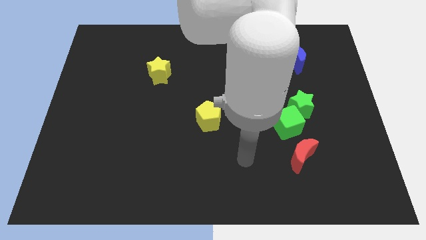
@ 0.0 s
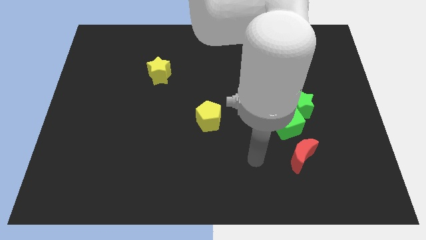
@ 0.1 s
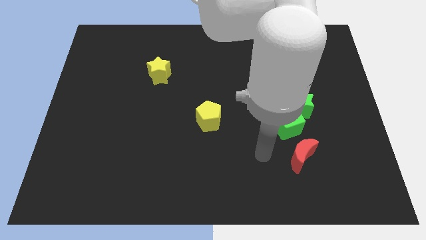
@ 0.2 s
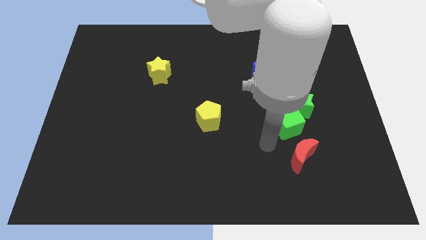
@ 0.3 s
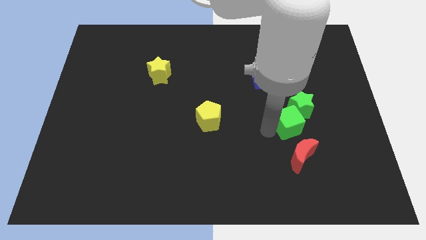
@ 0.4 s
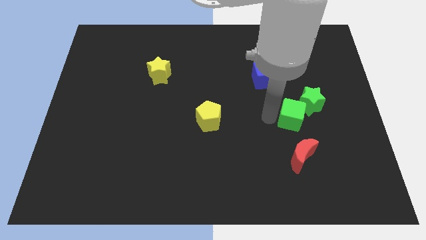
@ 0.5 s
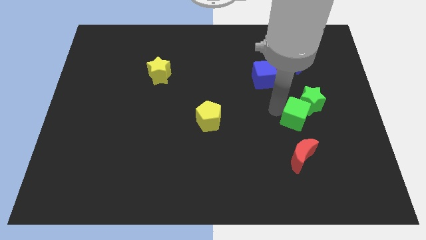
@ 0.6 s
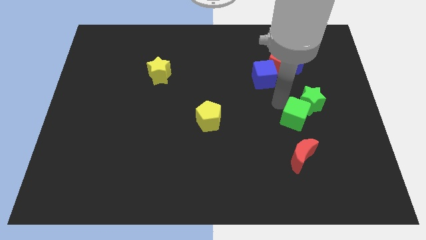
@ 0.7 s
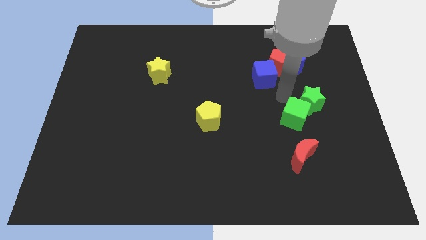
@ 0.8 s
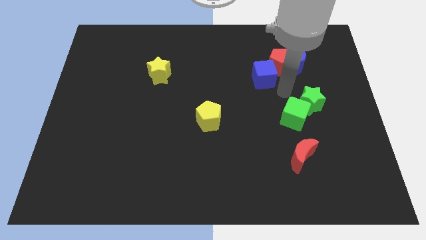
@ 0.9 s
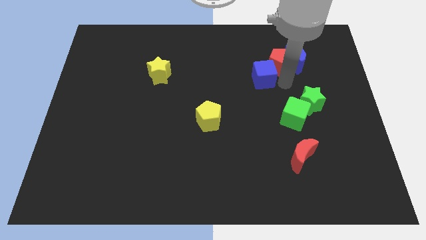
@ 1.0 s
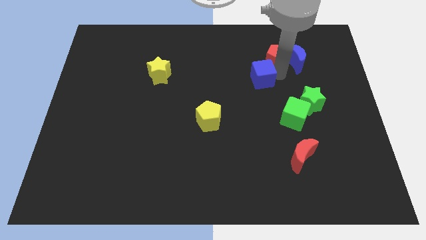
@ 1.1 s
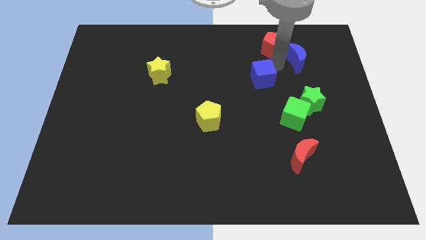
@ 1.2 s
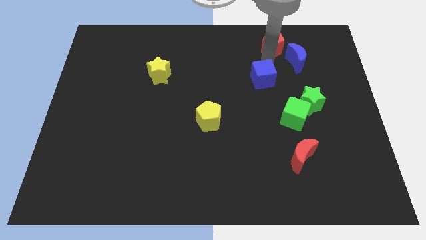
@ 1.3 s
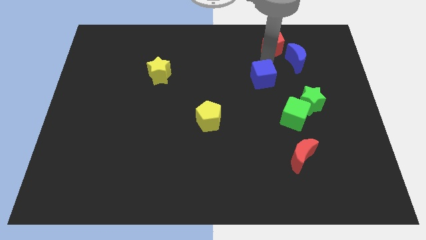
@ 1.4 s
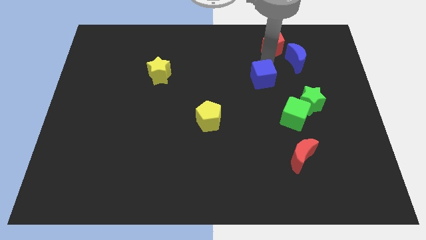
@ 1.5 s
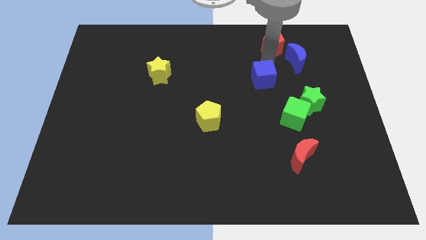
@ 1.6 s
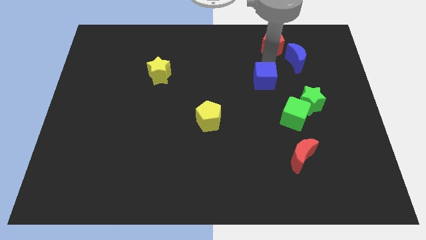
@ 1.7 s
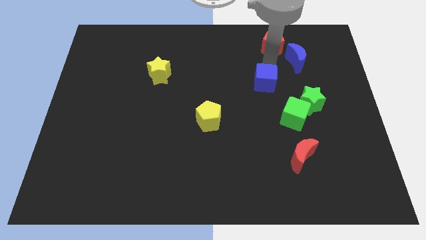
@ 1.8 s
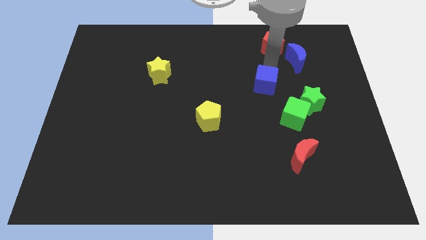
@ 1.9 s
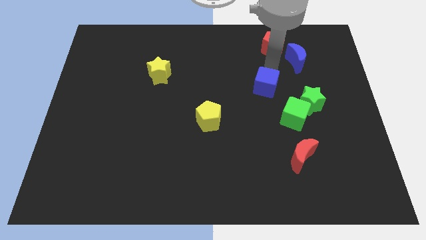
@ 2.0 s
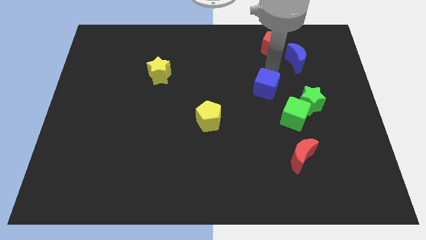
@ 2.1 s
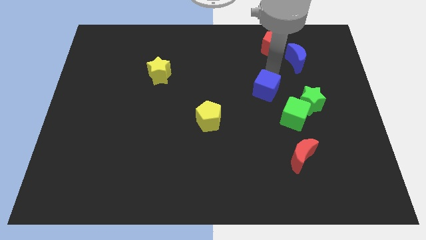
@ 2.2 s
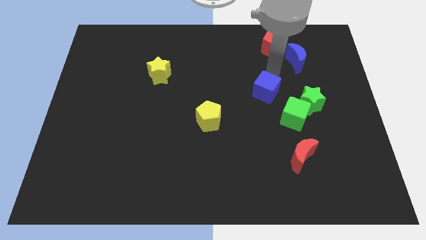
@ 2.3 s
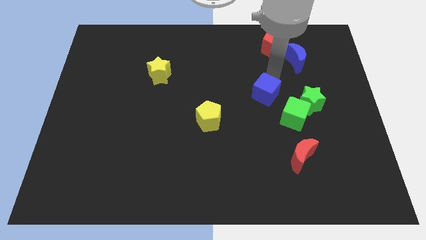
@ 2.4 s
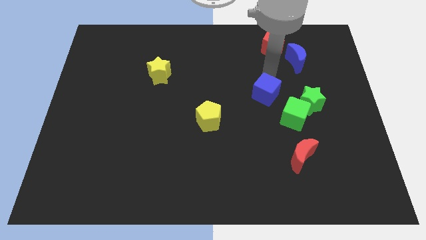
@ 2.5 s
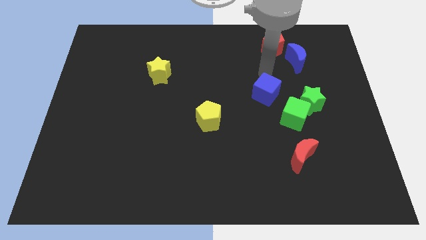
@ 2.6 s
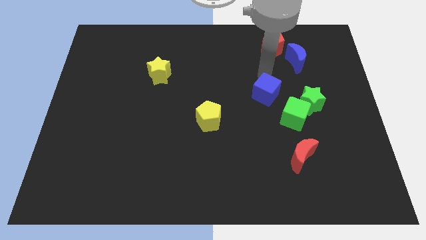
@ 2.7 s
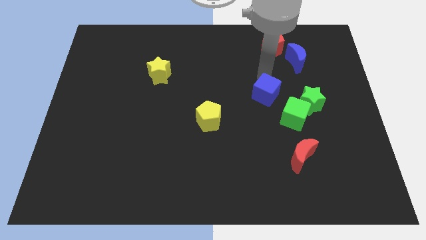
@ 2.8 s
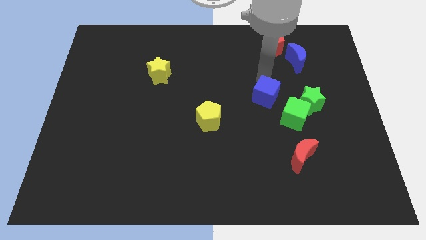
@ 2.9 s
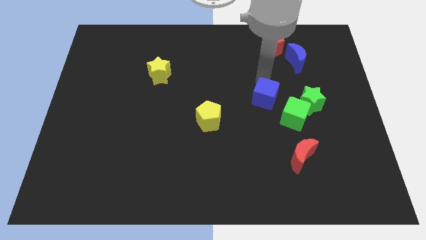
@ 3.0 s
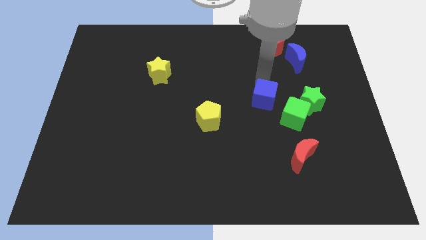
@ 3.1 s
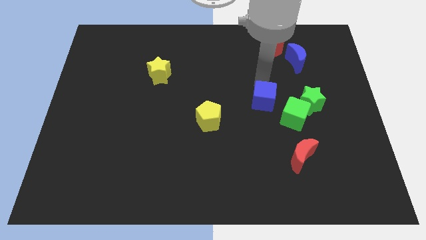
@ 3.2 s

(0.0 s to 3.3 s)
move the blue cube a little bit down

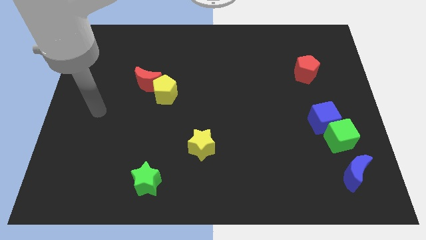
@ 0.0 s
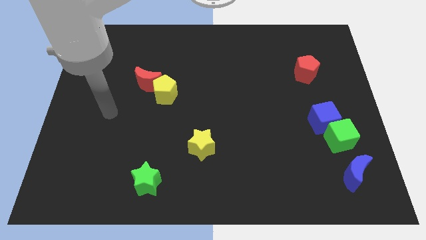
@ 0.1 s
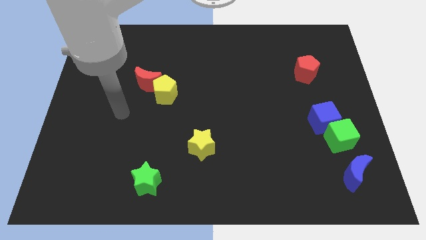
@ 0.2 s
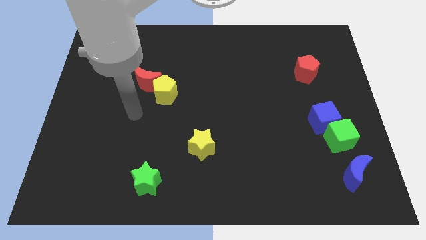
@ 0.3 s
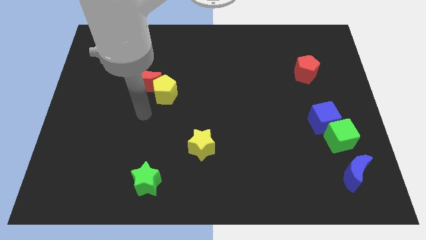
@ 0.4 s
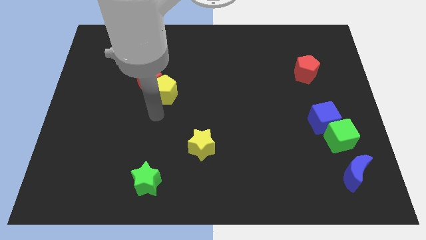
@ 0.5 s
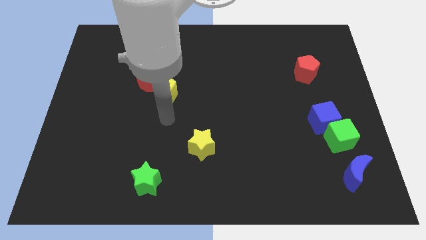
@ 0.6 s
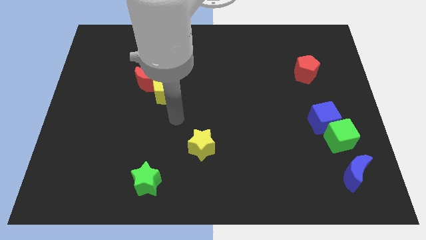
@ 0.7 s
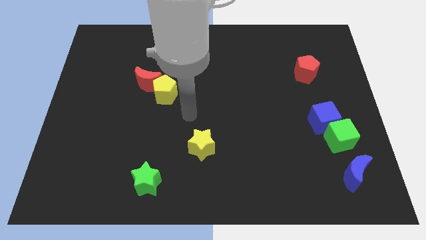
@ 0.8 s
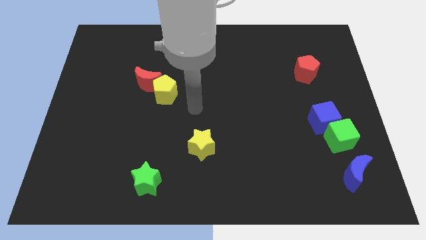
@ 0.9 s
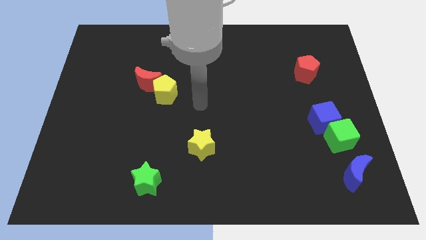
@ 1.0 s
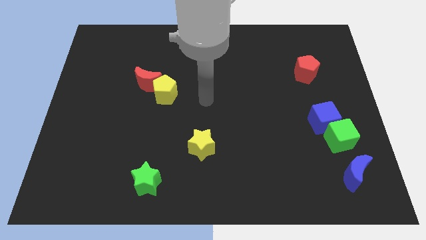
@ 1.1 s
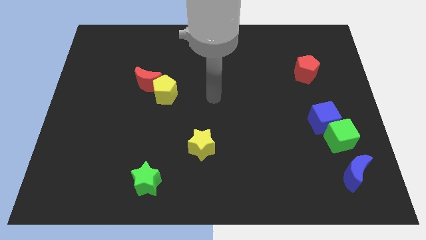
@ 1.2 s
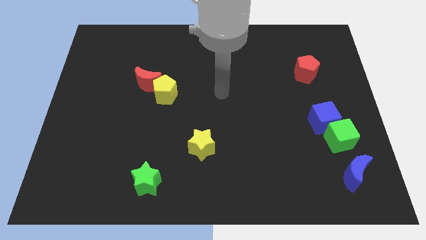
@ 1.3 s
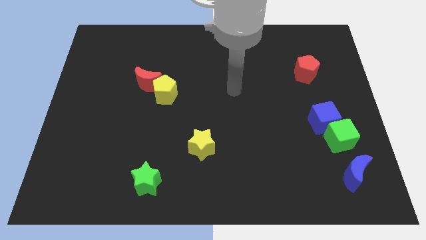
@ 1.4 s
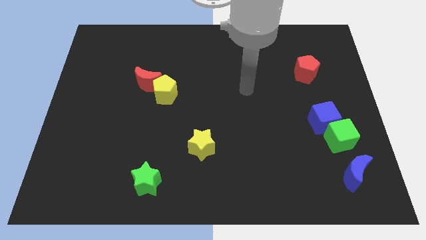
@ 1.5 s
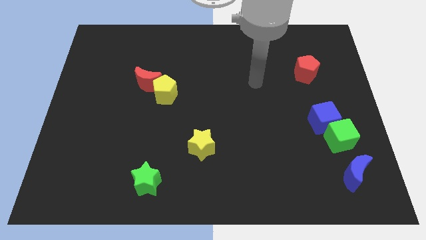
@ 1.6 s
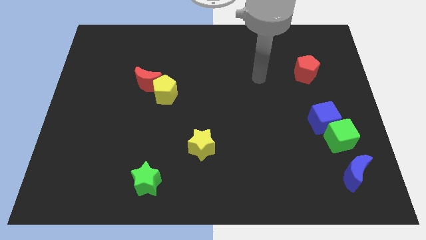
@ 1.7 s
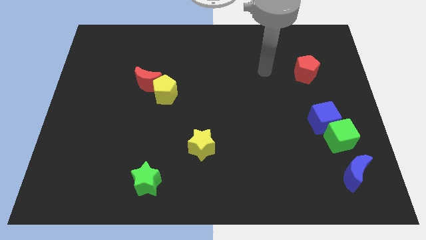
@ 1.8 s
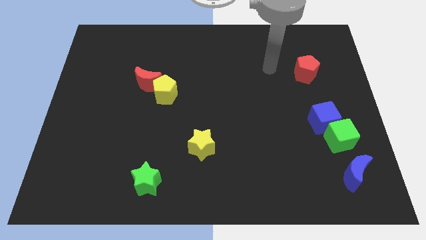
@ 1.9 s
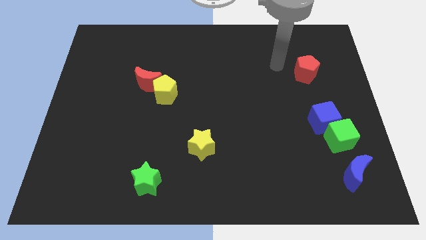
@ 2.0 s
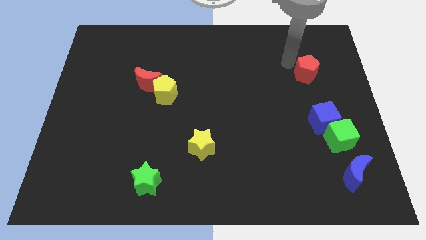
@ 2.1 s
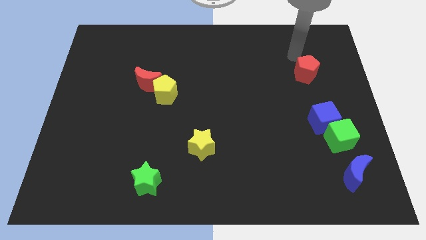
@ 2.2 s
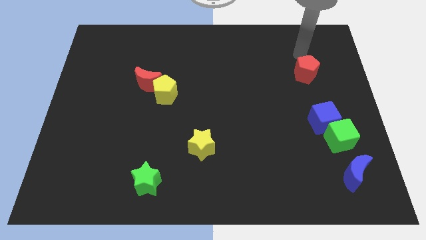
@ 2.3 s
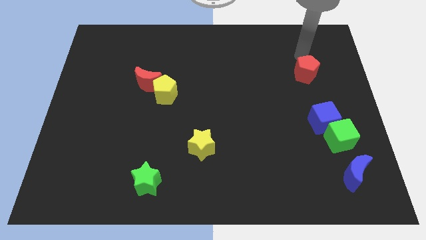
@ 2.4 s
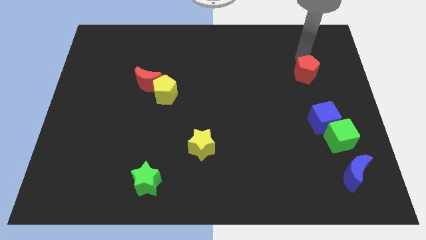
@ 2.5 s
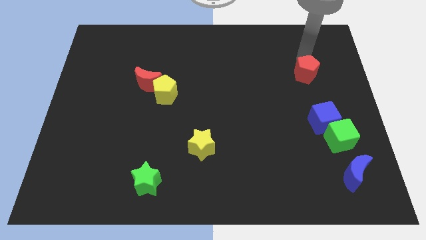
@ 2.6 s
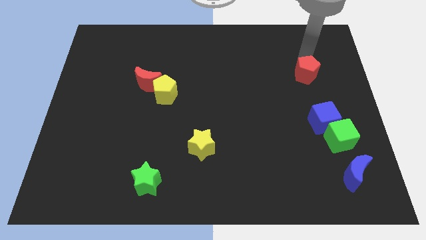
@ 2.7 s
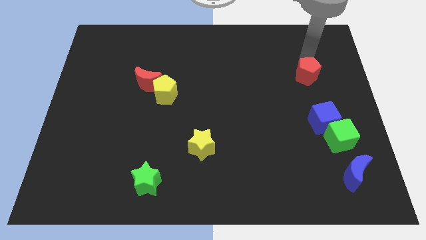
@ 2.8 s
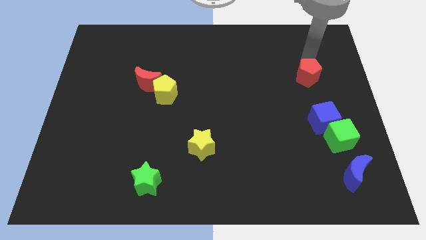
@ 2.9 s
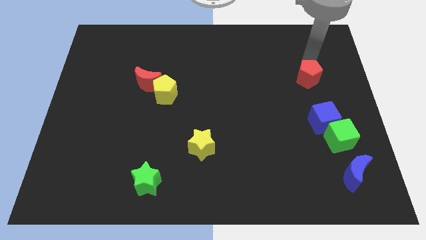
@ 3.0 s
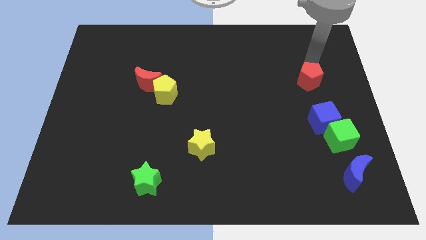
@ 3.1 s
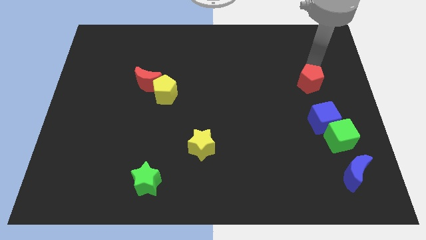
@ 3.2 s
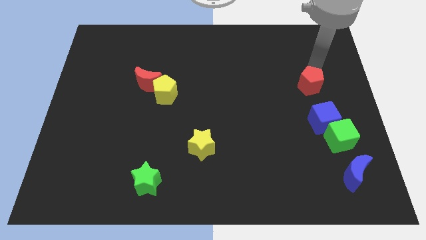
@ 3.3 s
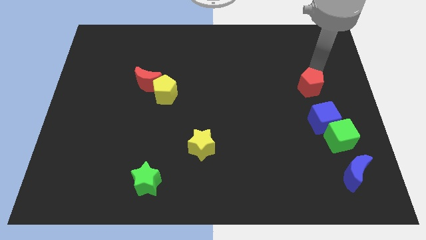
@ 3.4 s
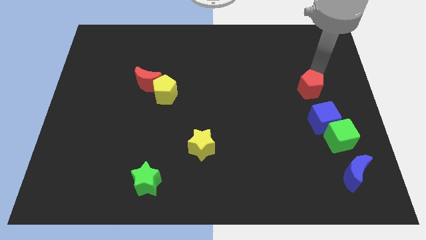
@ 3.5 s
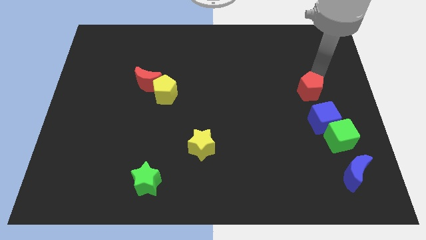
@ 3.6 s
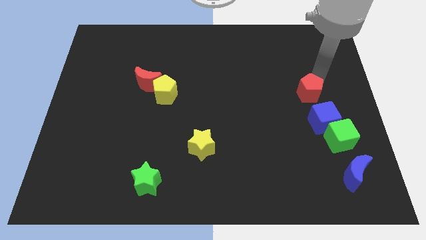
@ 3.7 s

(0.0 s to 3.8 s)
push the red pentagon a bit down

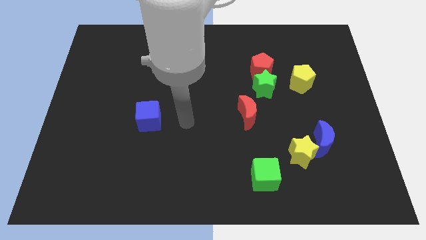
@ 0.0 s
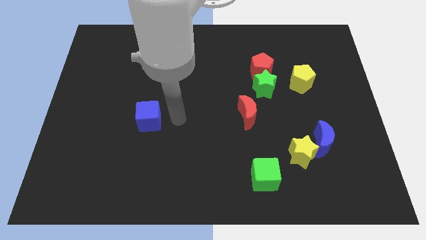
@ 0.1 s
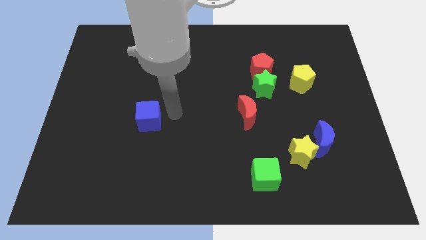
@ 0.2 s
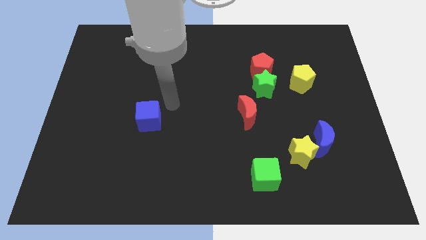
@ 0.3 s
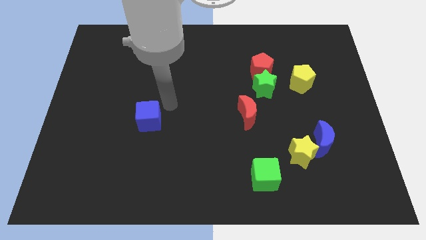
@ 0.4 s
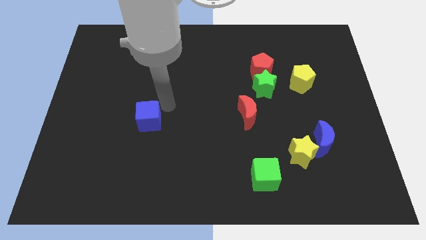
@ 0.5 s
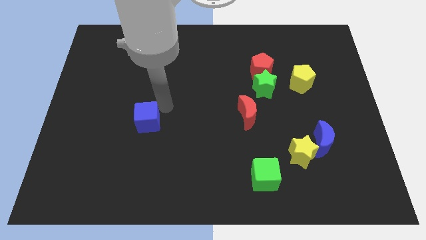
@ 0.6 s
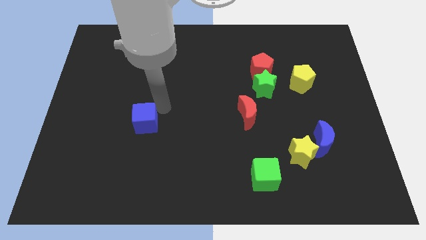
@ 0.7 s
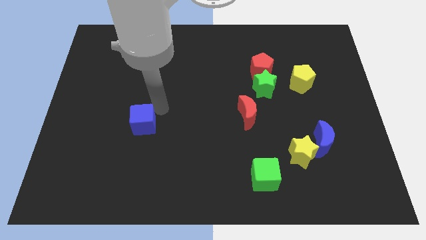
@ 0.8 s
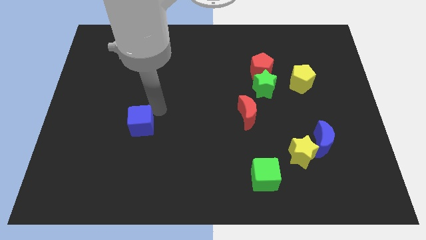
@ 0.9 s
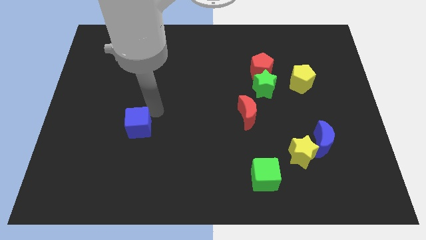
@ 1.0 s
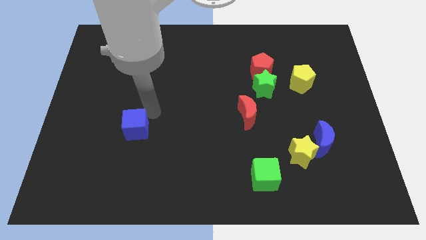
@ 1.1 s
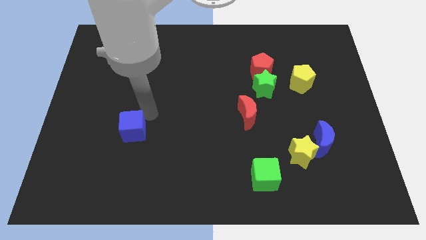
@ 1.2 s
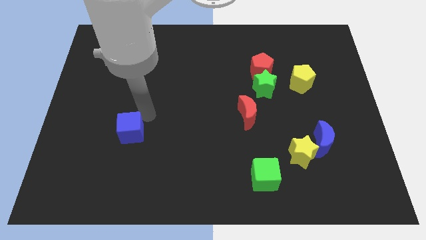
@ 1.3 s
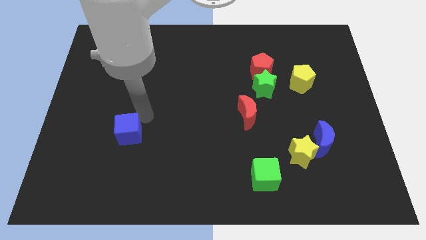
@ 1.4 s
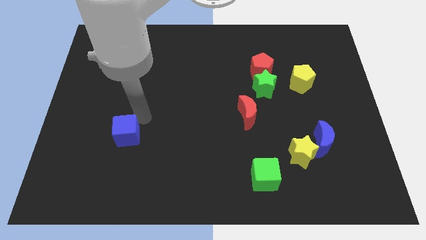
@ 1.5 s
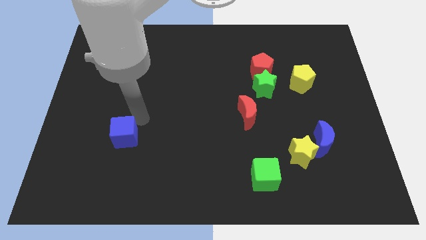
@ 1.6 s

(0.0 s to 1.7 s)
move the blue cube down and then left a little
